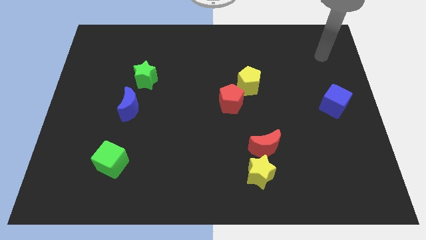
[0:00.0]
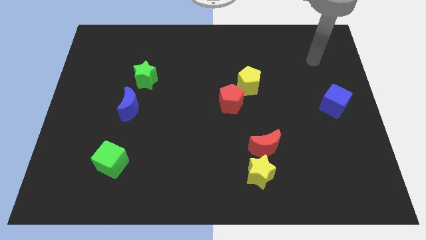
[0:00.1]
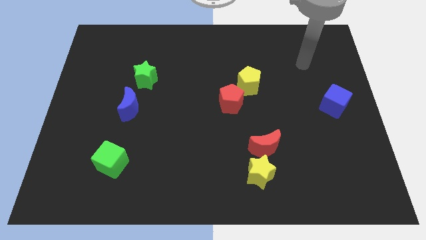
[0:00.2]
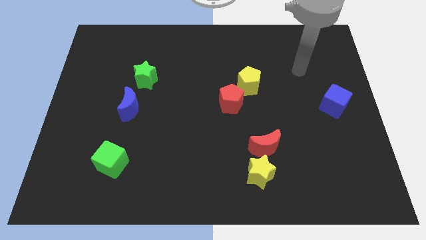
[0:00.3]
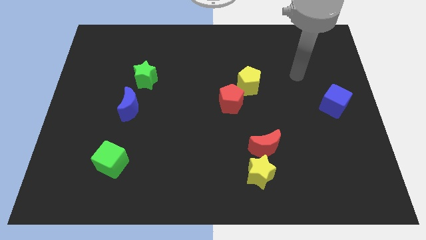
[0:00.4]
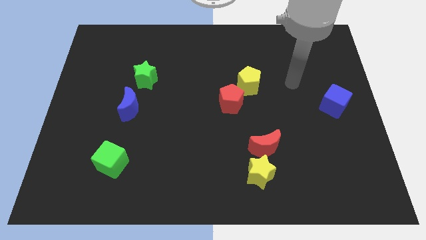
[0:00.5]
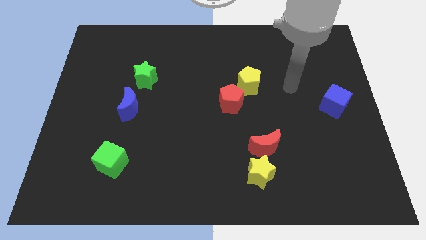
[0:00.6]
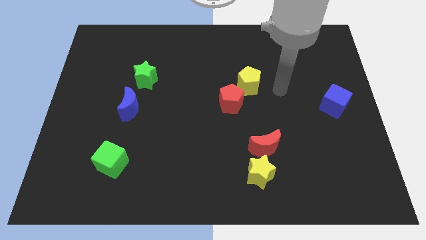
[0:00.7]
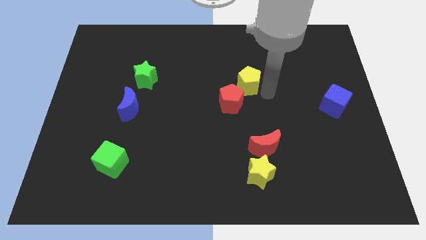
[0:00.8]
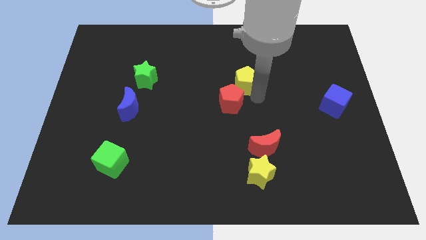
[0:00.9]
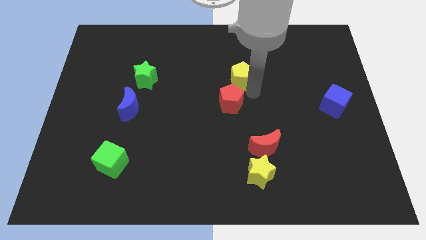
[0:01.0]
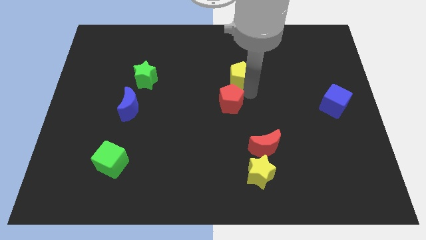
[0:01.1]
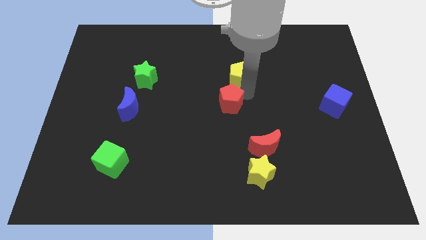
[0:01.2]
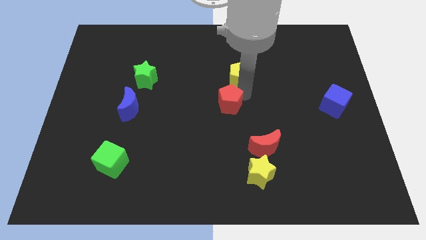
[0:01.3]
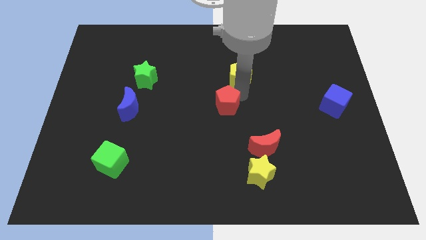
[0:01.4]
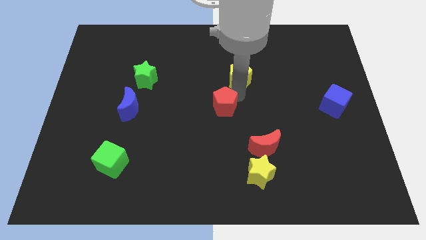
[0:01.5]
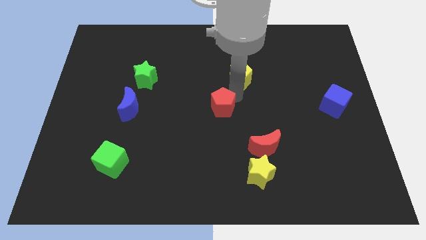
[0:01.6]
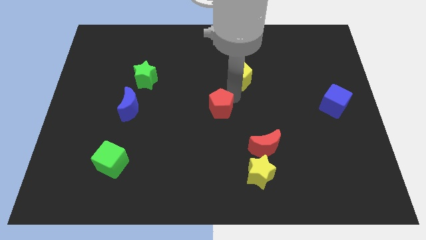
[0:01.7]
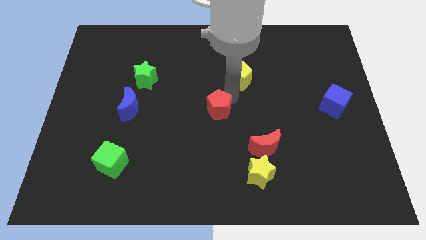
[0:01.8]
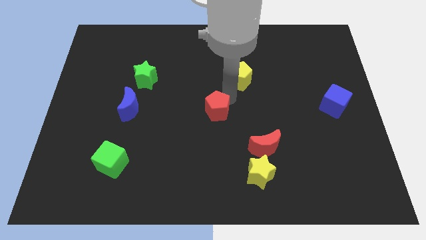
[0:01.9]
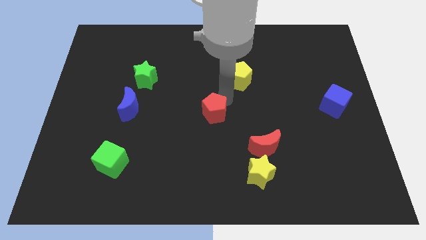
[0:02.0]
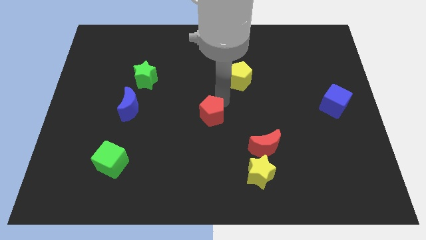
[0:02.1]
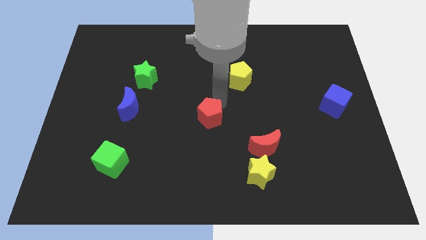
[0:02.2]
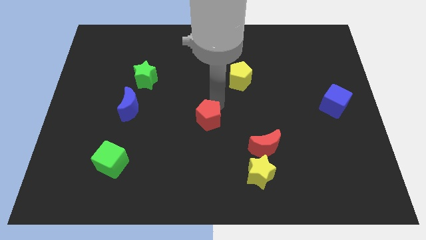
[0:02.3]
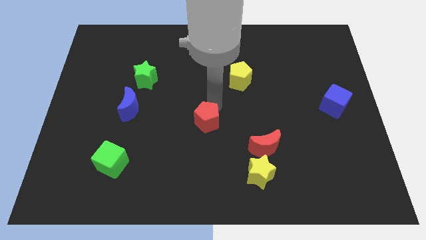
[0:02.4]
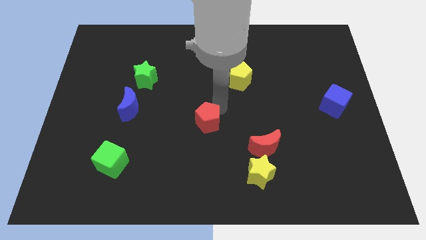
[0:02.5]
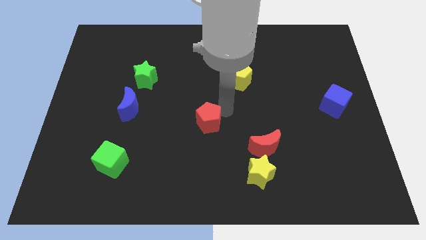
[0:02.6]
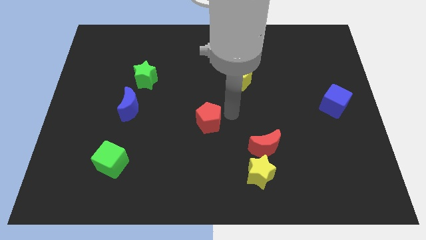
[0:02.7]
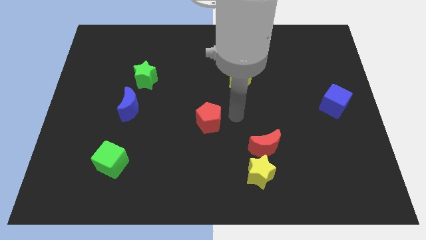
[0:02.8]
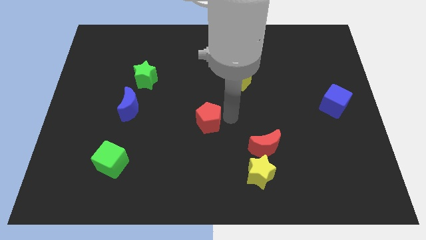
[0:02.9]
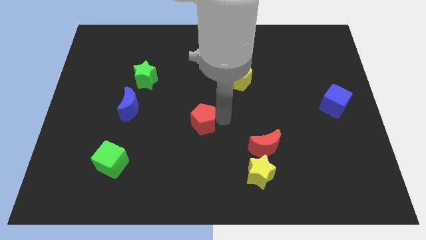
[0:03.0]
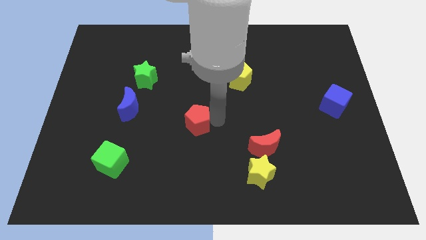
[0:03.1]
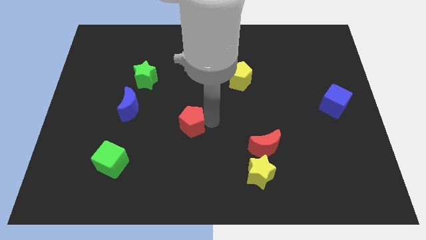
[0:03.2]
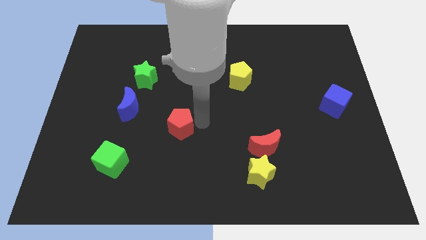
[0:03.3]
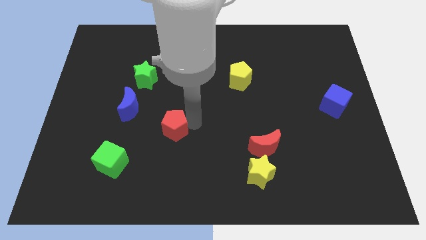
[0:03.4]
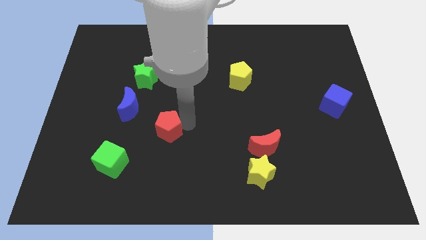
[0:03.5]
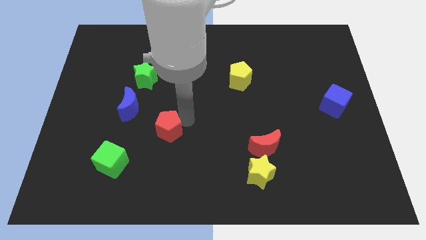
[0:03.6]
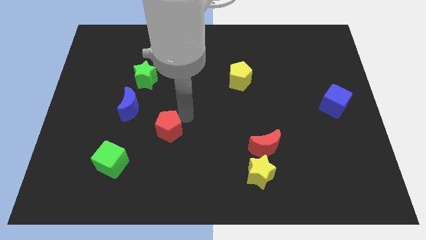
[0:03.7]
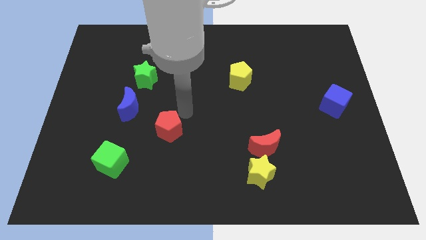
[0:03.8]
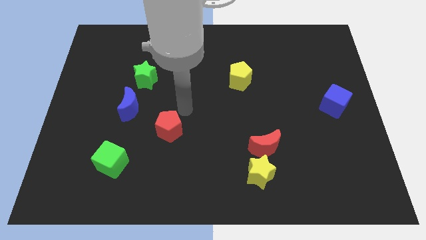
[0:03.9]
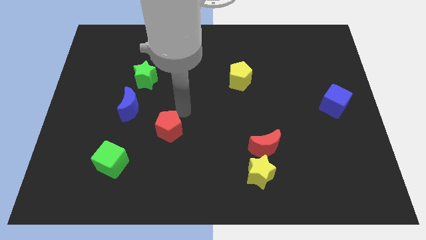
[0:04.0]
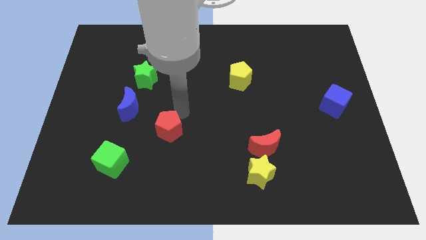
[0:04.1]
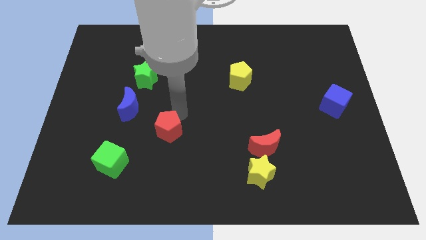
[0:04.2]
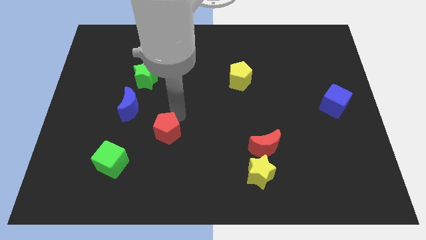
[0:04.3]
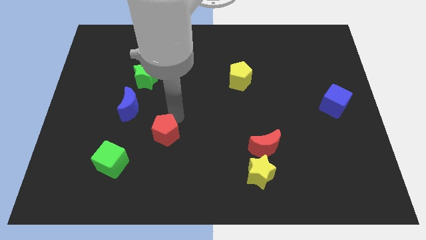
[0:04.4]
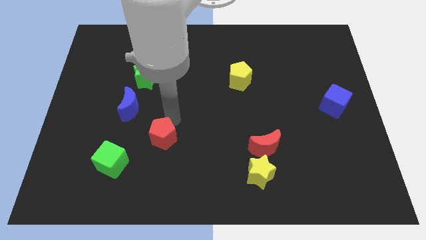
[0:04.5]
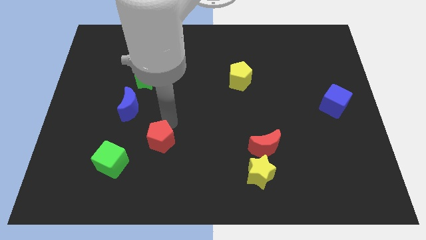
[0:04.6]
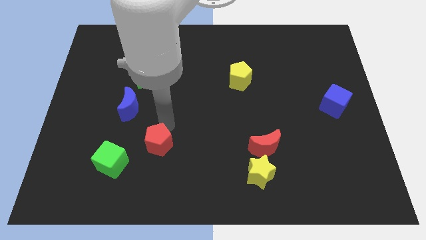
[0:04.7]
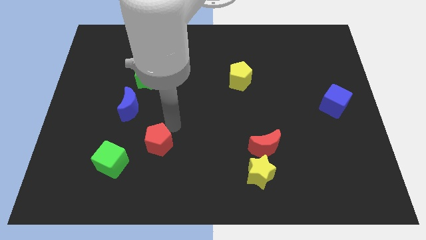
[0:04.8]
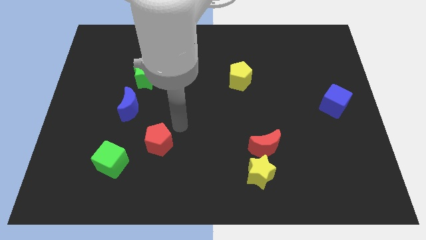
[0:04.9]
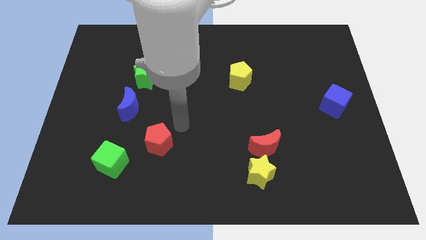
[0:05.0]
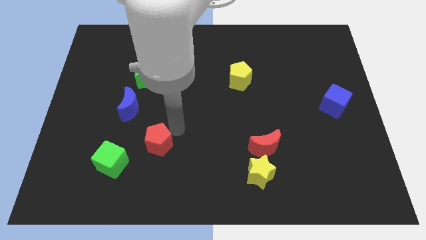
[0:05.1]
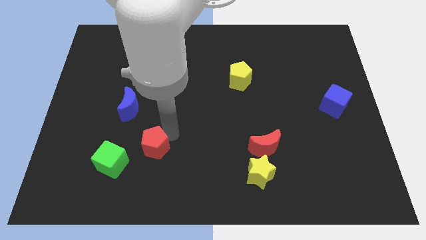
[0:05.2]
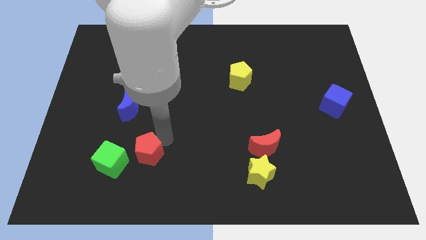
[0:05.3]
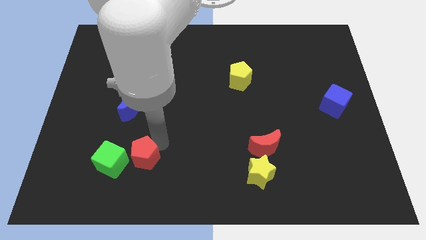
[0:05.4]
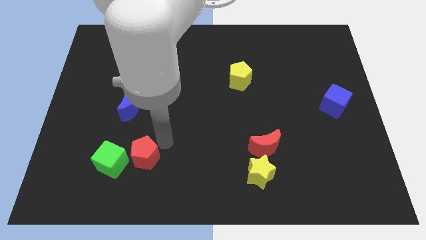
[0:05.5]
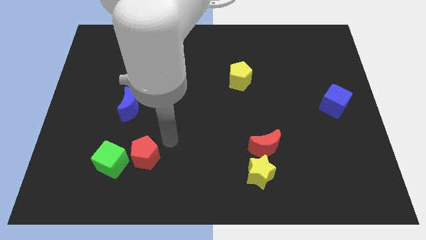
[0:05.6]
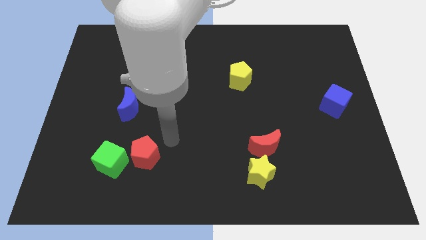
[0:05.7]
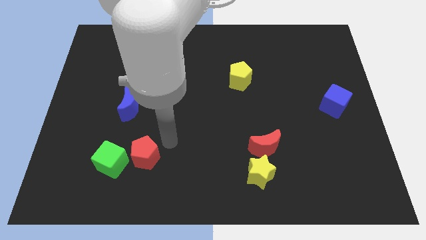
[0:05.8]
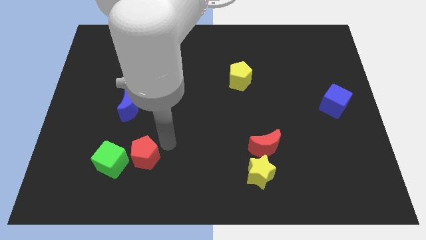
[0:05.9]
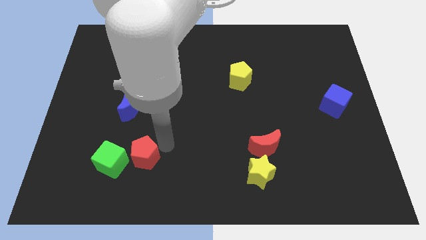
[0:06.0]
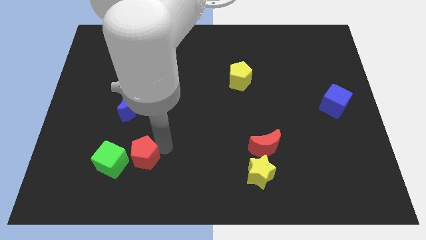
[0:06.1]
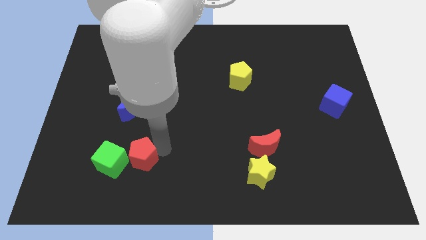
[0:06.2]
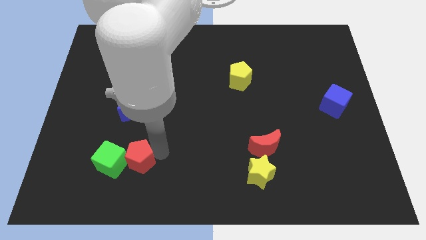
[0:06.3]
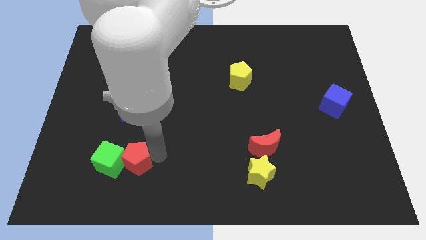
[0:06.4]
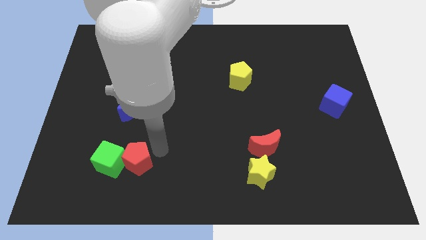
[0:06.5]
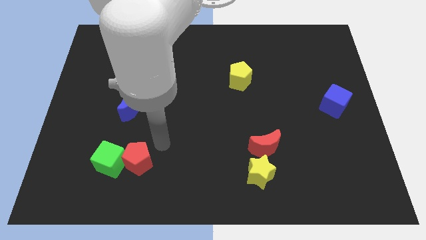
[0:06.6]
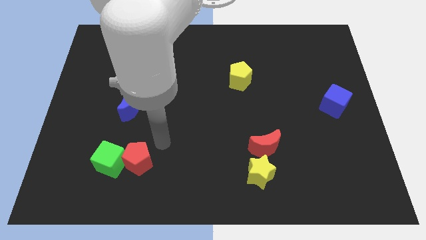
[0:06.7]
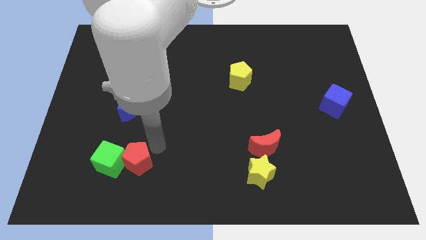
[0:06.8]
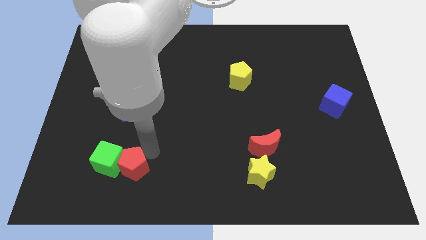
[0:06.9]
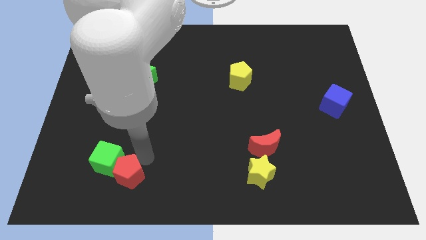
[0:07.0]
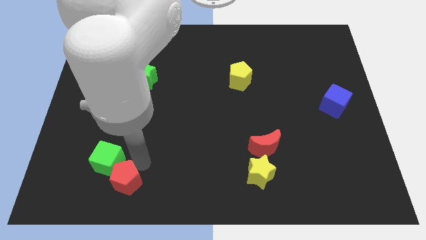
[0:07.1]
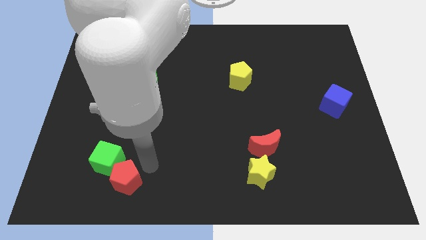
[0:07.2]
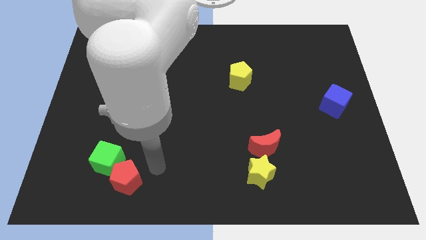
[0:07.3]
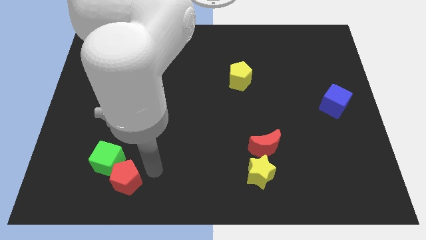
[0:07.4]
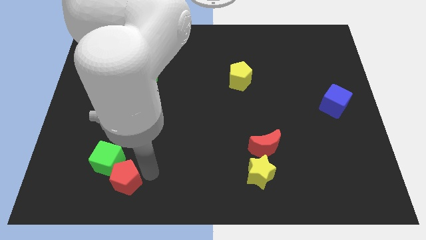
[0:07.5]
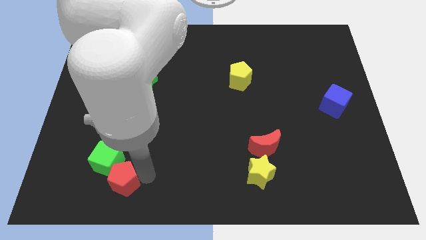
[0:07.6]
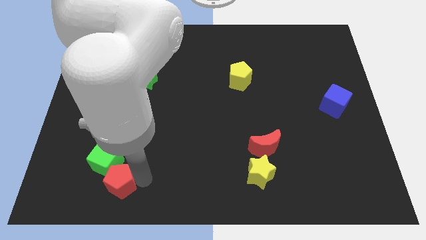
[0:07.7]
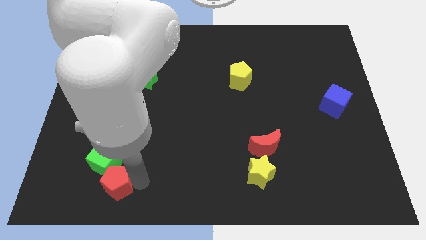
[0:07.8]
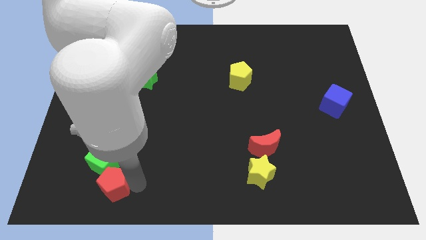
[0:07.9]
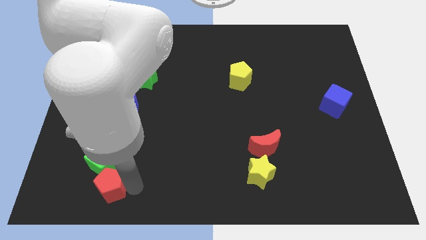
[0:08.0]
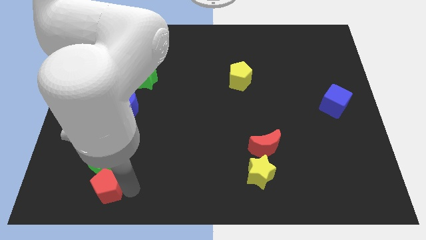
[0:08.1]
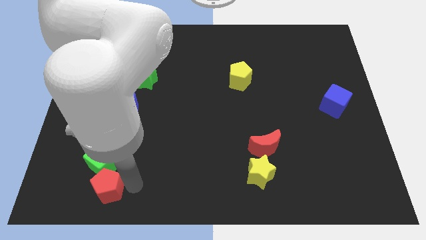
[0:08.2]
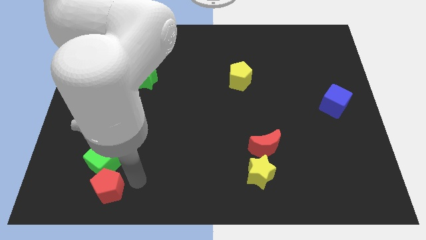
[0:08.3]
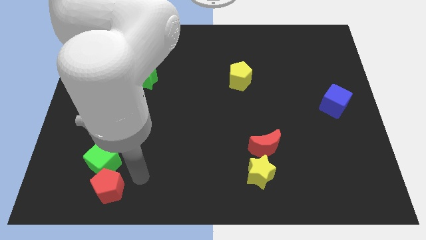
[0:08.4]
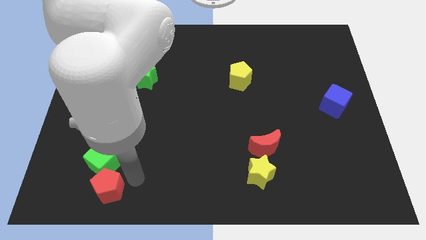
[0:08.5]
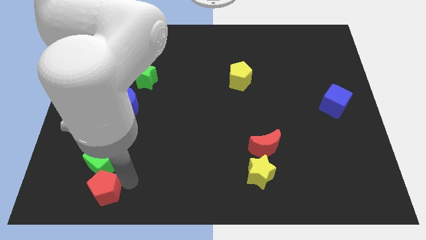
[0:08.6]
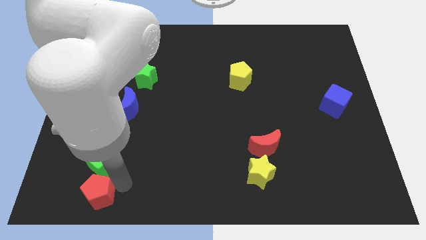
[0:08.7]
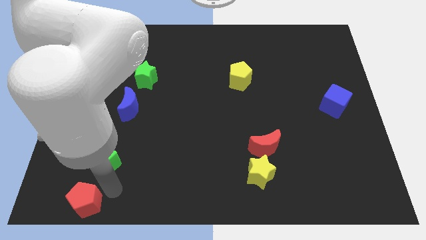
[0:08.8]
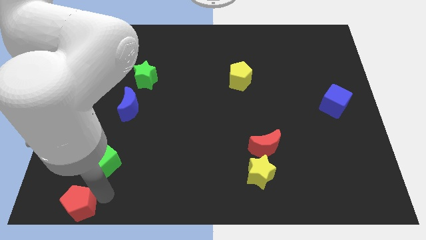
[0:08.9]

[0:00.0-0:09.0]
push the red pentagon to the bottom left corner
